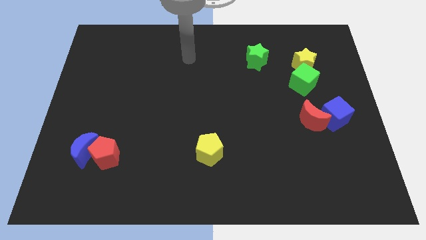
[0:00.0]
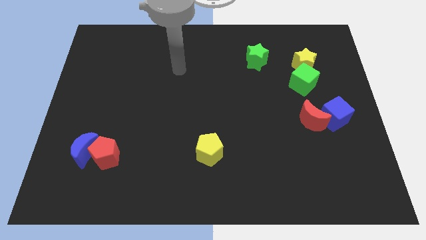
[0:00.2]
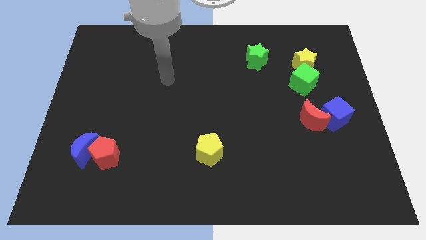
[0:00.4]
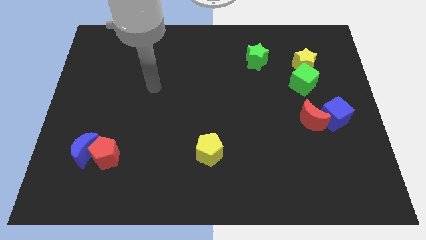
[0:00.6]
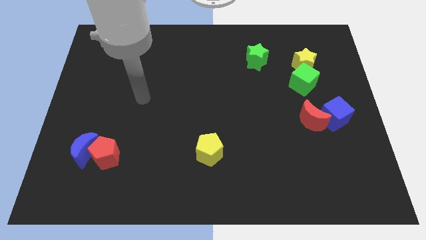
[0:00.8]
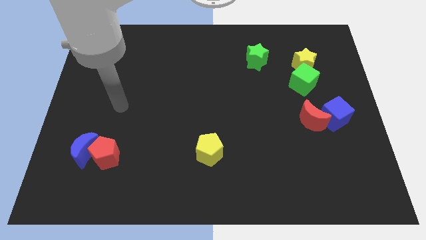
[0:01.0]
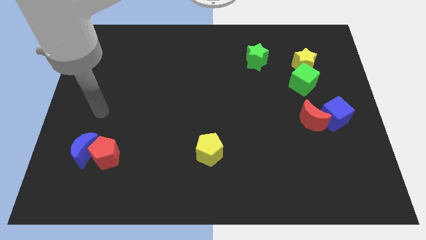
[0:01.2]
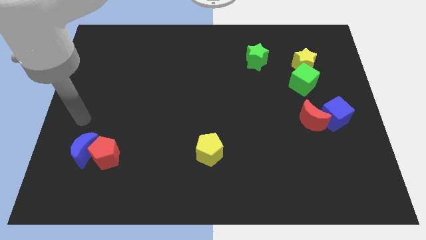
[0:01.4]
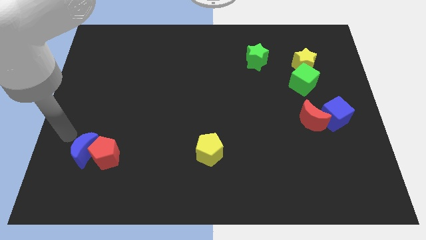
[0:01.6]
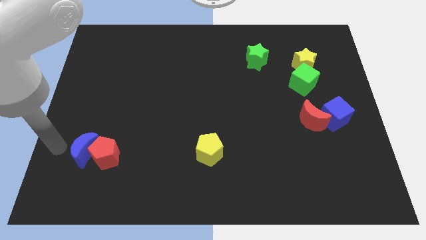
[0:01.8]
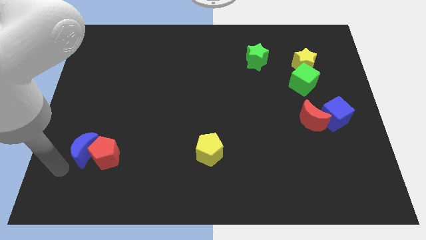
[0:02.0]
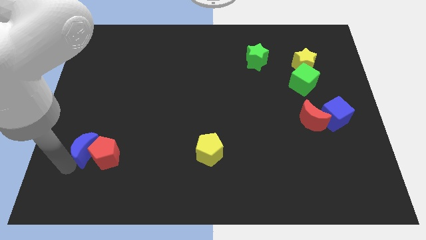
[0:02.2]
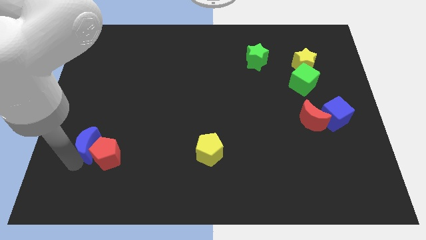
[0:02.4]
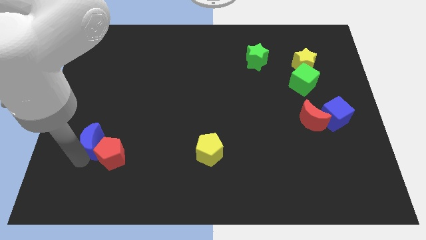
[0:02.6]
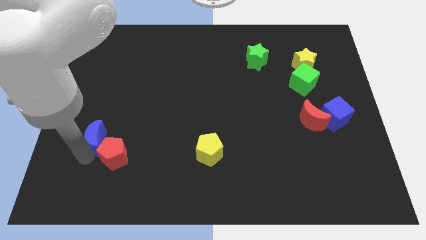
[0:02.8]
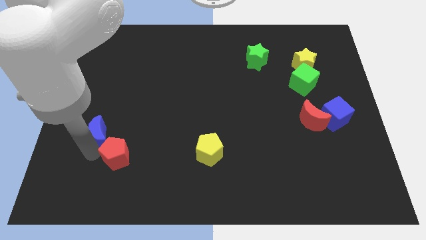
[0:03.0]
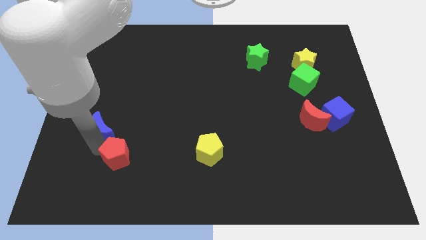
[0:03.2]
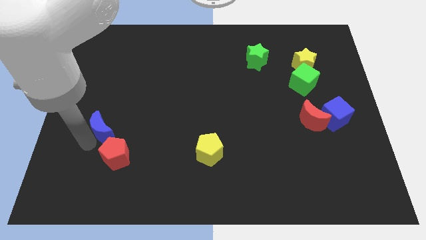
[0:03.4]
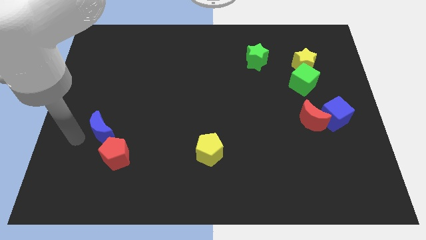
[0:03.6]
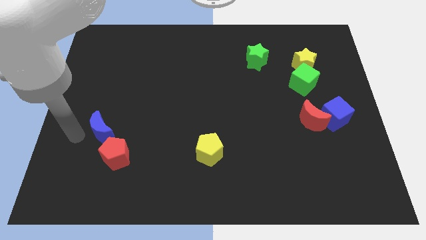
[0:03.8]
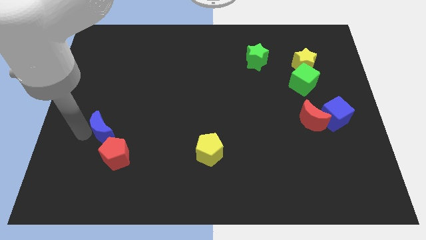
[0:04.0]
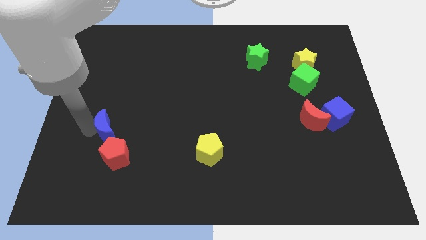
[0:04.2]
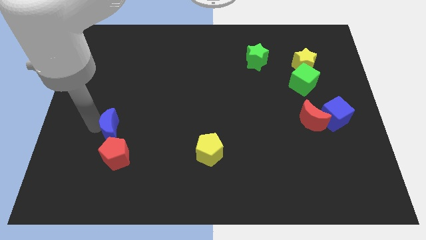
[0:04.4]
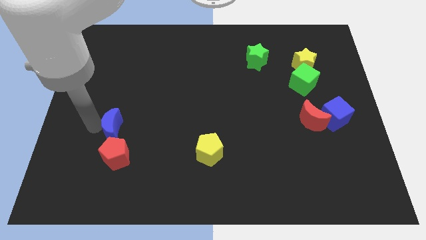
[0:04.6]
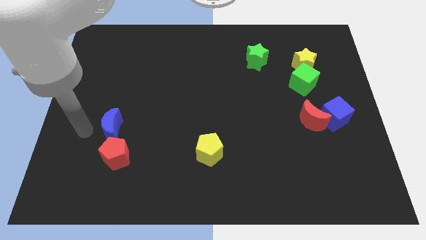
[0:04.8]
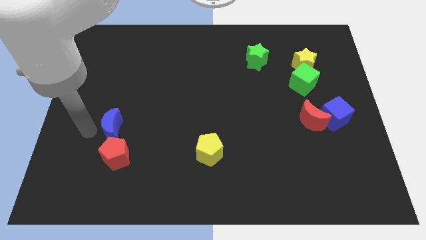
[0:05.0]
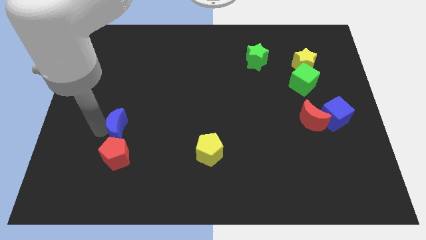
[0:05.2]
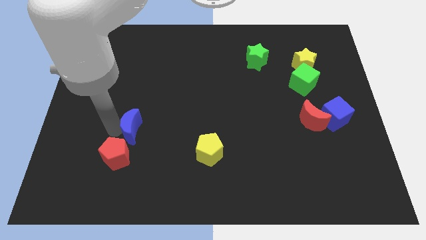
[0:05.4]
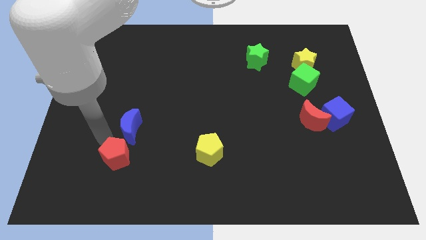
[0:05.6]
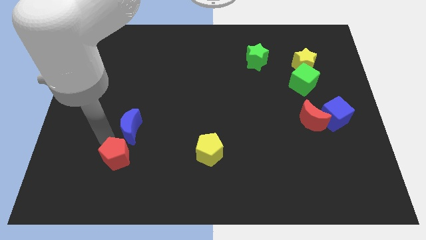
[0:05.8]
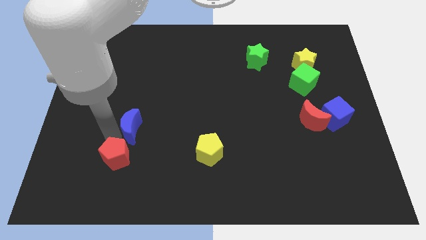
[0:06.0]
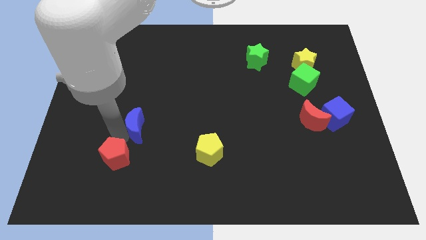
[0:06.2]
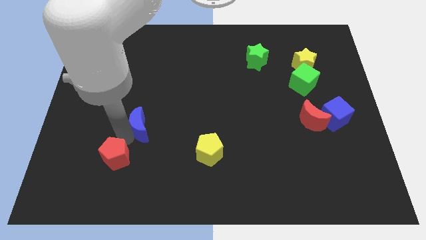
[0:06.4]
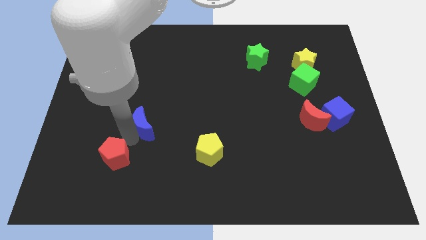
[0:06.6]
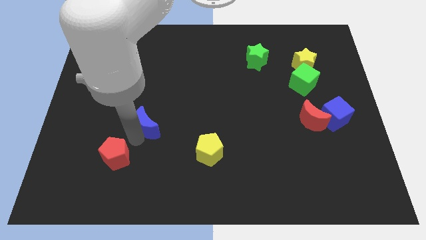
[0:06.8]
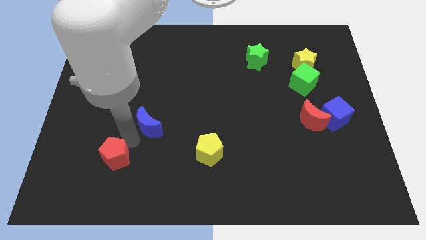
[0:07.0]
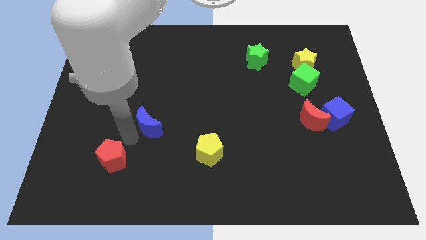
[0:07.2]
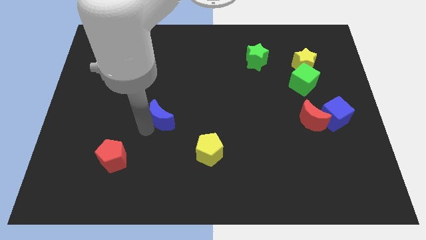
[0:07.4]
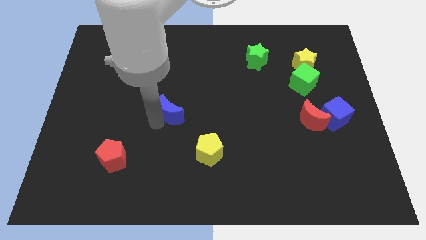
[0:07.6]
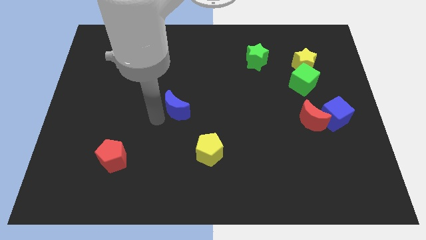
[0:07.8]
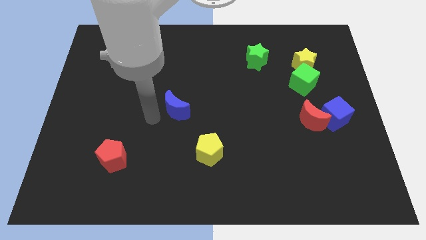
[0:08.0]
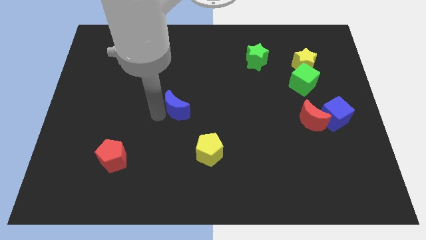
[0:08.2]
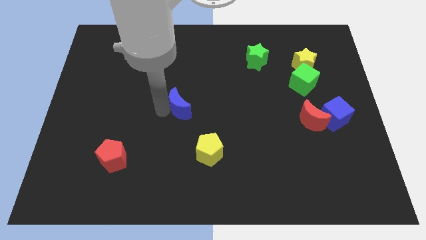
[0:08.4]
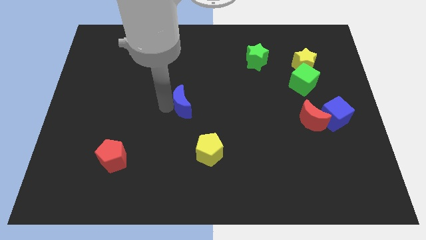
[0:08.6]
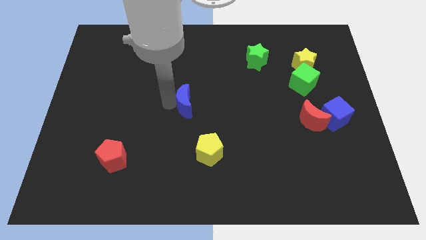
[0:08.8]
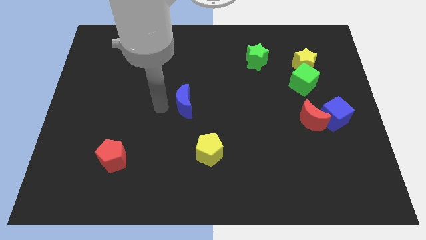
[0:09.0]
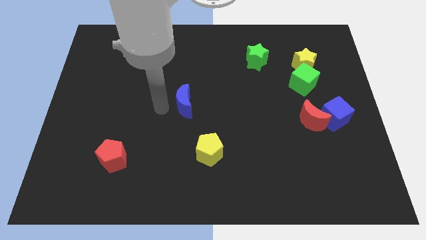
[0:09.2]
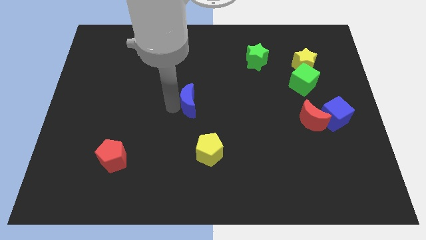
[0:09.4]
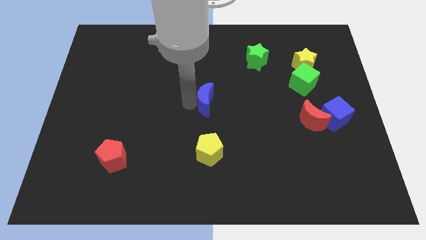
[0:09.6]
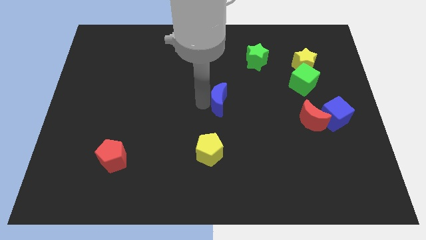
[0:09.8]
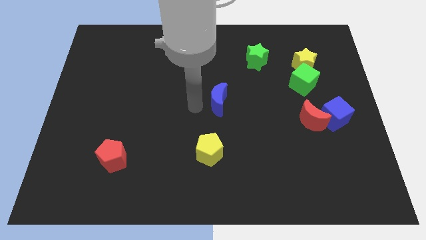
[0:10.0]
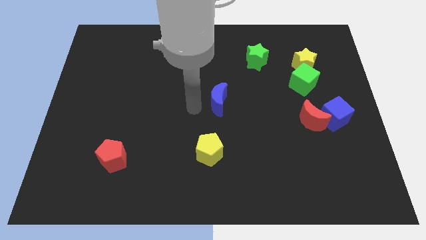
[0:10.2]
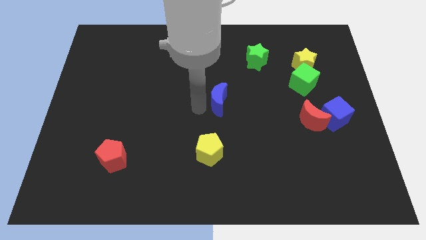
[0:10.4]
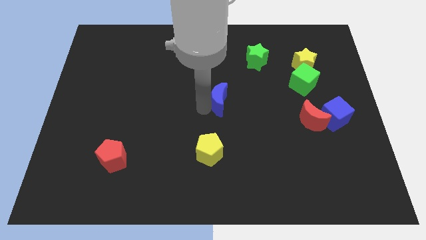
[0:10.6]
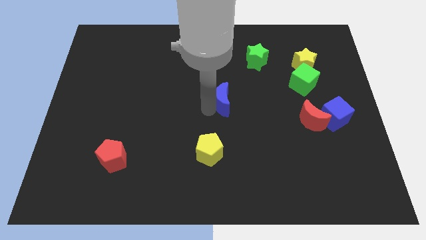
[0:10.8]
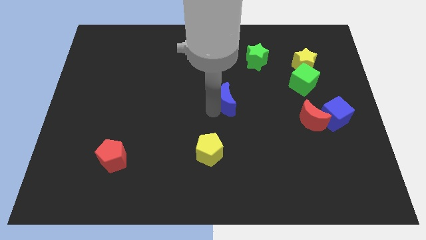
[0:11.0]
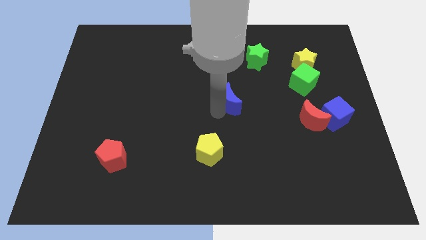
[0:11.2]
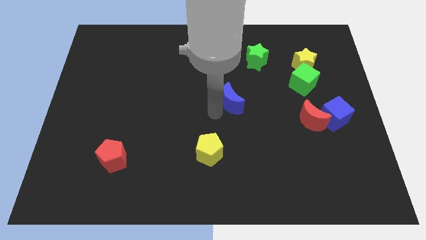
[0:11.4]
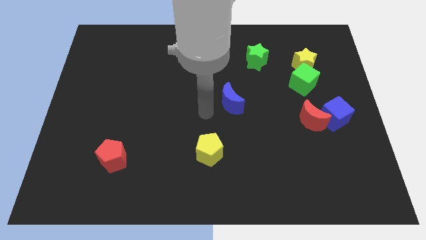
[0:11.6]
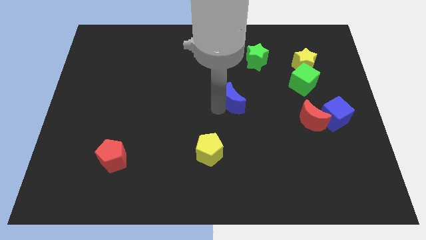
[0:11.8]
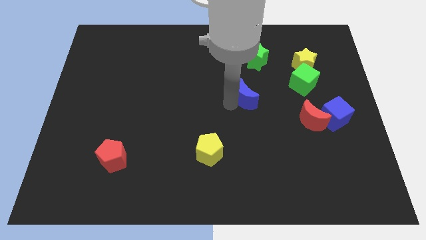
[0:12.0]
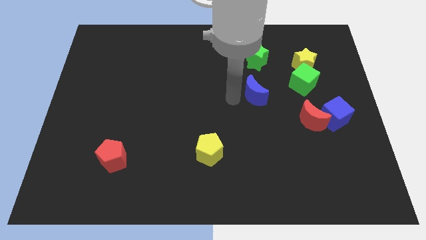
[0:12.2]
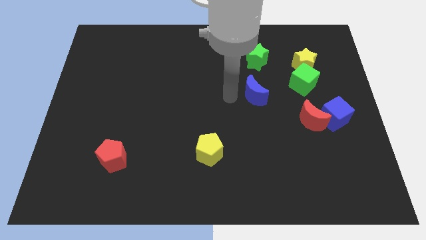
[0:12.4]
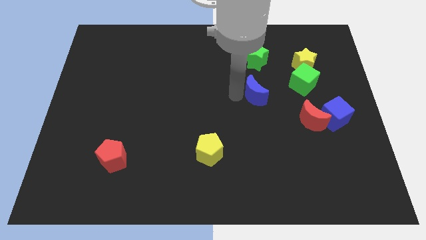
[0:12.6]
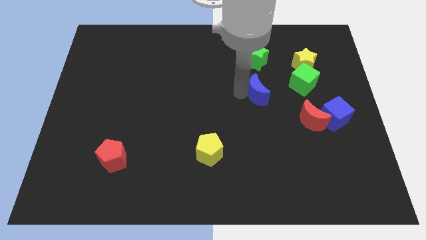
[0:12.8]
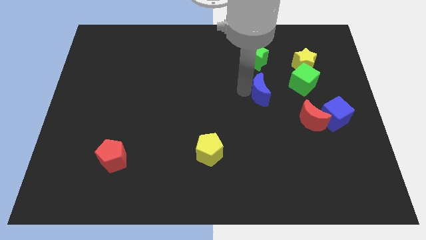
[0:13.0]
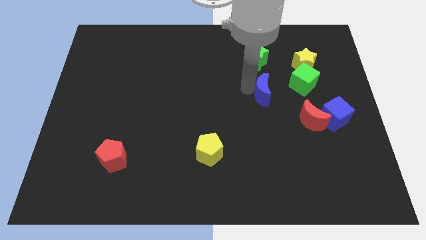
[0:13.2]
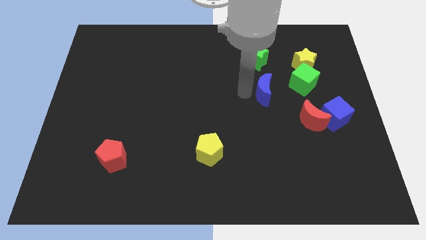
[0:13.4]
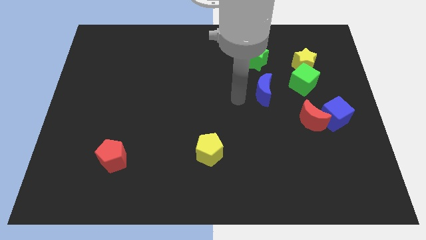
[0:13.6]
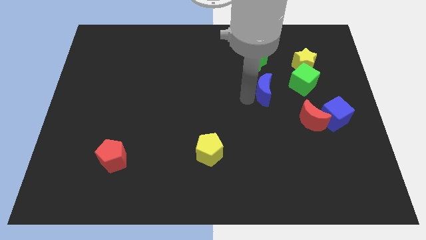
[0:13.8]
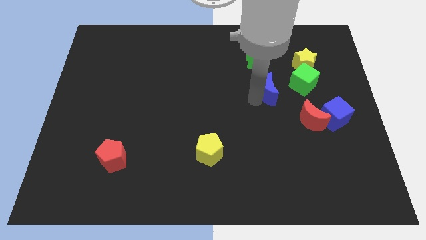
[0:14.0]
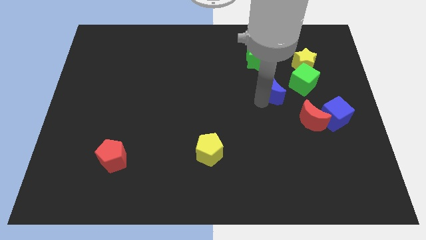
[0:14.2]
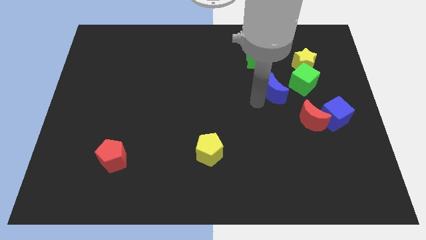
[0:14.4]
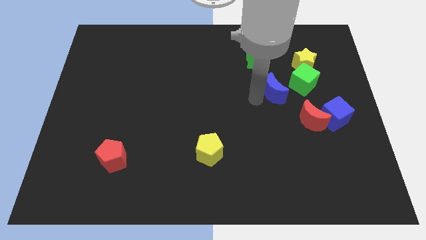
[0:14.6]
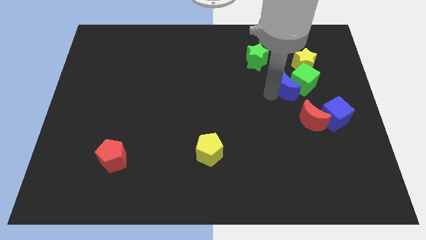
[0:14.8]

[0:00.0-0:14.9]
put the blue moon towards the green cube

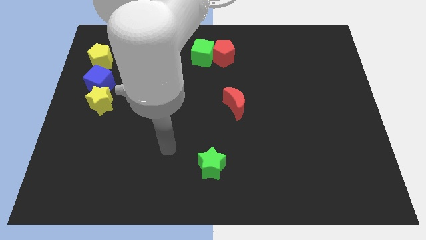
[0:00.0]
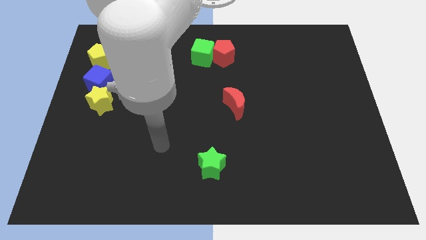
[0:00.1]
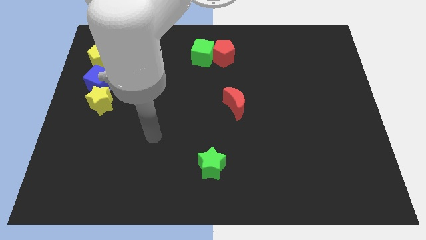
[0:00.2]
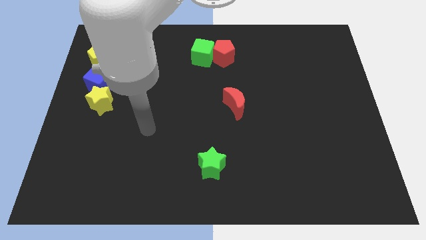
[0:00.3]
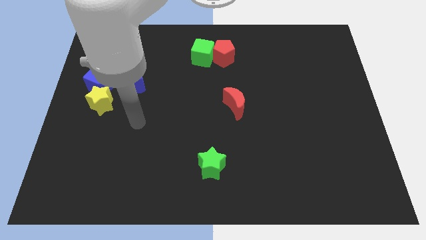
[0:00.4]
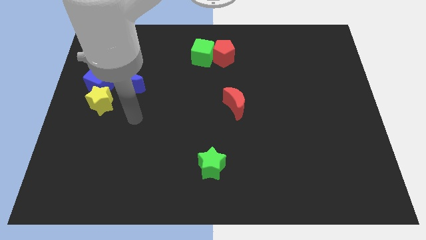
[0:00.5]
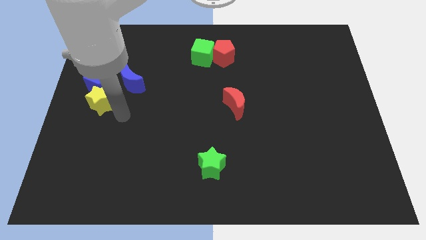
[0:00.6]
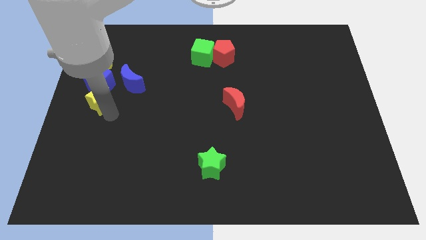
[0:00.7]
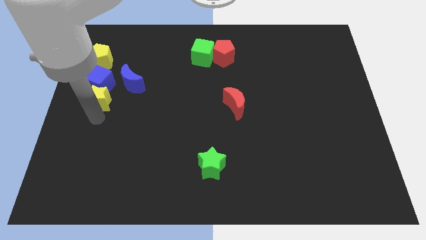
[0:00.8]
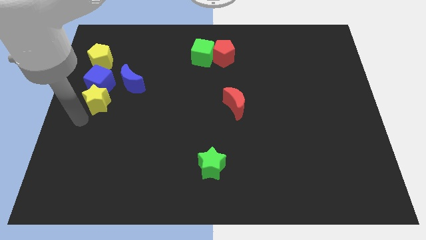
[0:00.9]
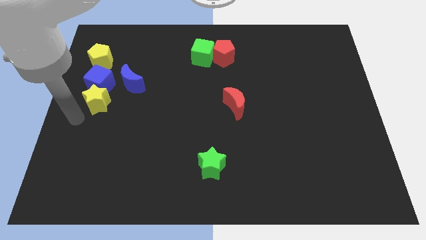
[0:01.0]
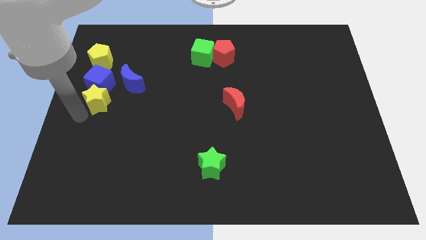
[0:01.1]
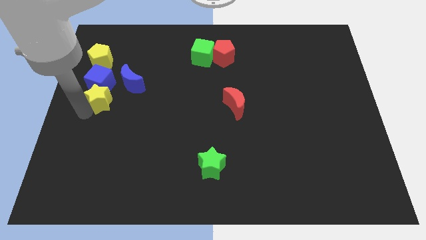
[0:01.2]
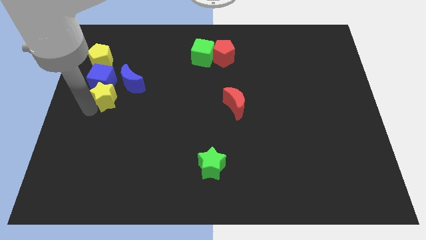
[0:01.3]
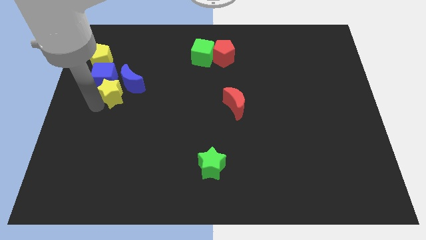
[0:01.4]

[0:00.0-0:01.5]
push the yellow star next to the blue moon
